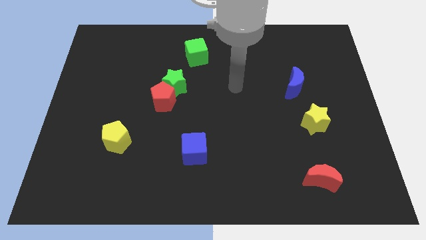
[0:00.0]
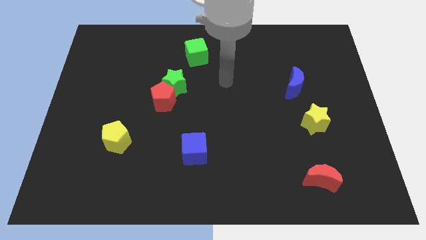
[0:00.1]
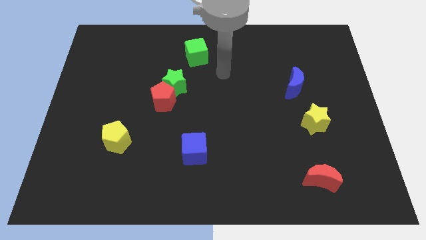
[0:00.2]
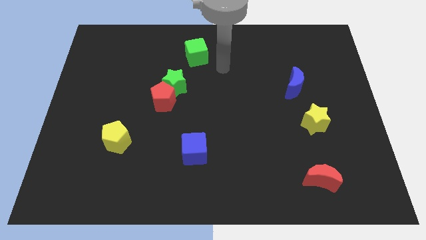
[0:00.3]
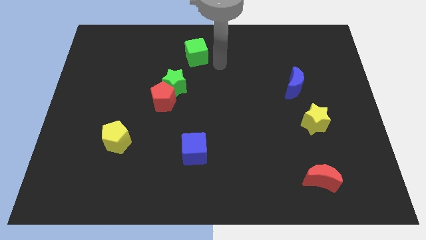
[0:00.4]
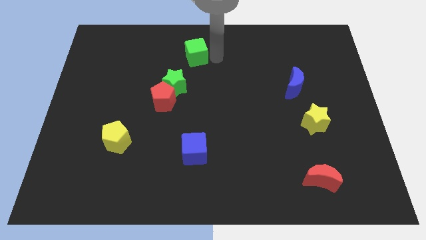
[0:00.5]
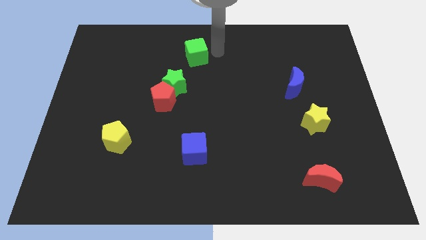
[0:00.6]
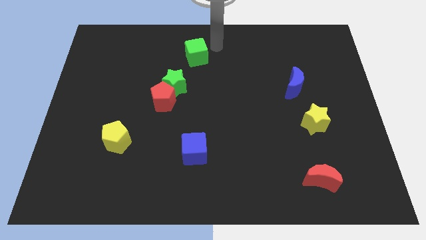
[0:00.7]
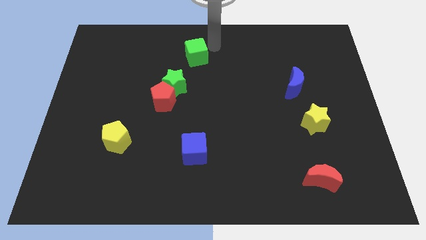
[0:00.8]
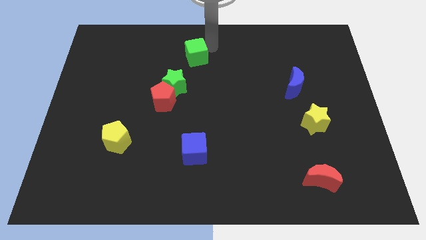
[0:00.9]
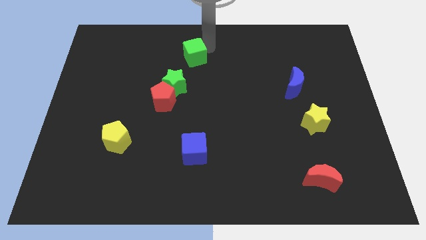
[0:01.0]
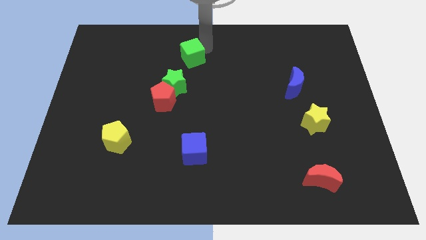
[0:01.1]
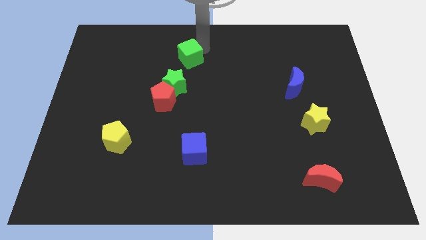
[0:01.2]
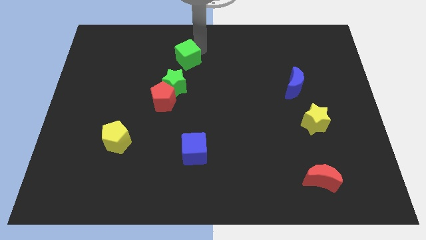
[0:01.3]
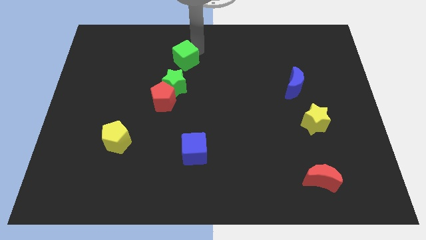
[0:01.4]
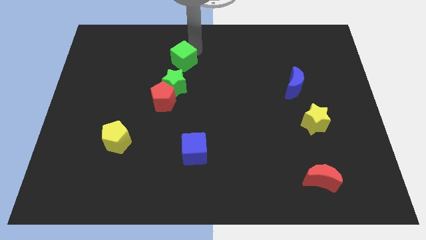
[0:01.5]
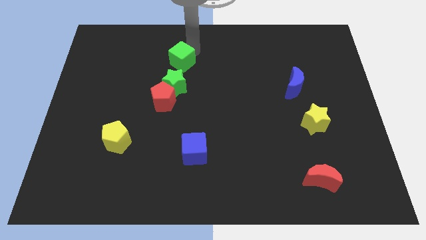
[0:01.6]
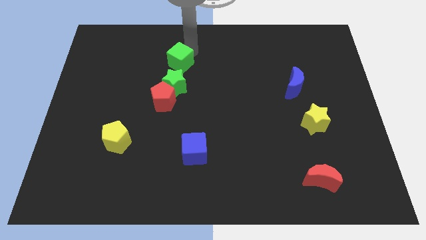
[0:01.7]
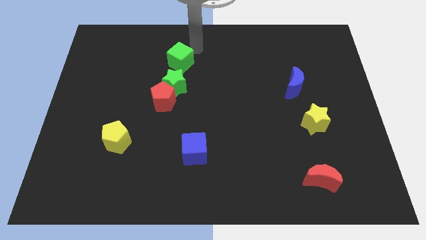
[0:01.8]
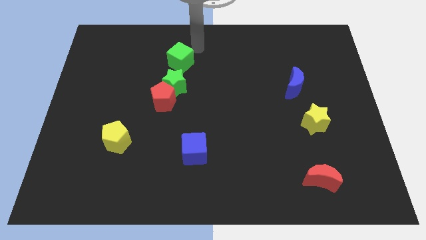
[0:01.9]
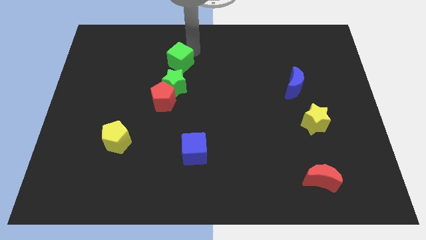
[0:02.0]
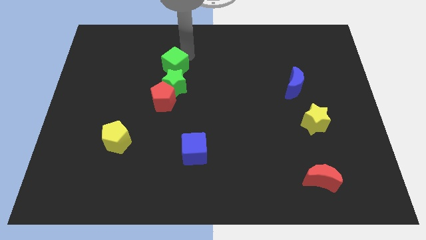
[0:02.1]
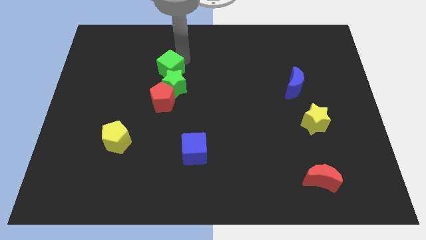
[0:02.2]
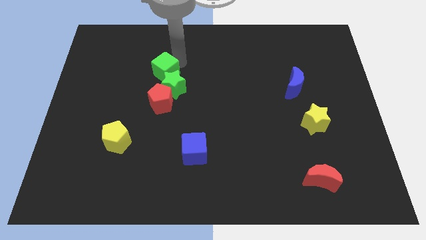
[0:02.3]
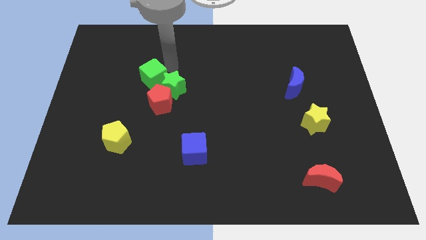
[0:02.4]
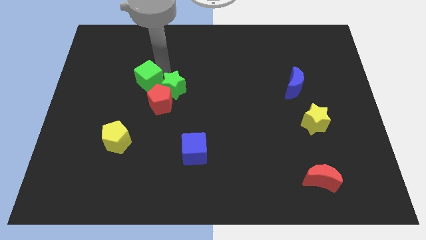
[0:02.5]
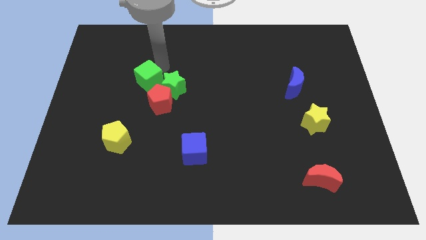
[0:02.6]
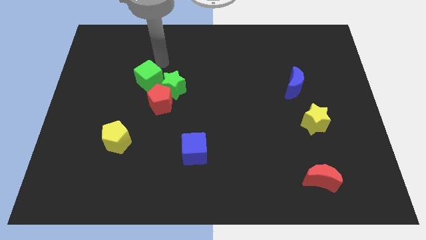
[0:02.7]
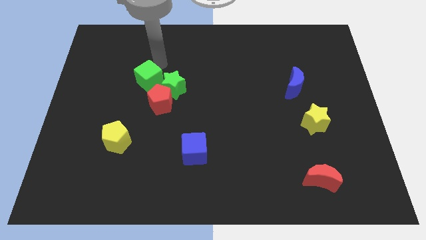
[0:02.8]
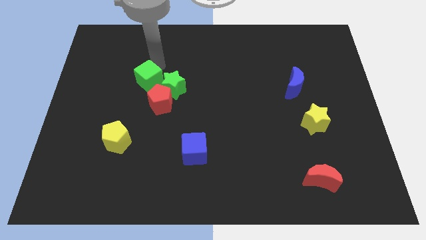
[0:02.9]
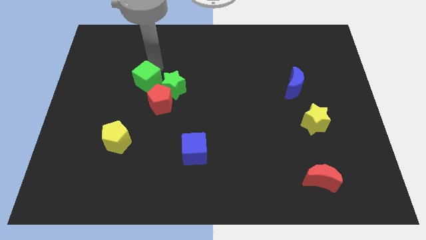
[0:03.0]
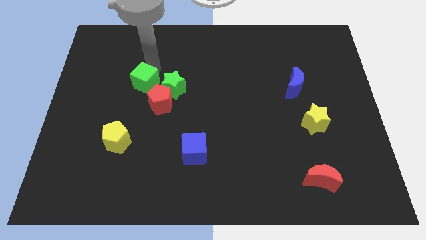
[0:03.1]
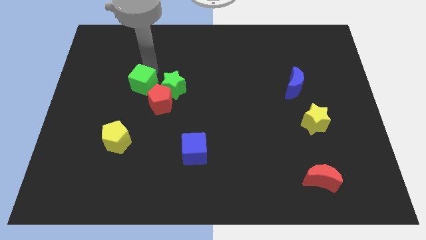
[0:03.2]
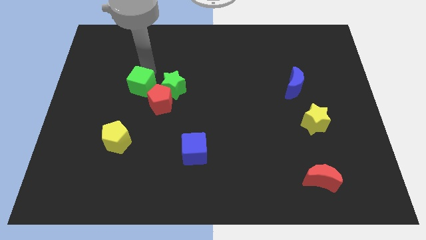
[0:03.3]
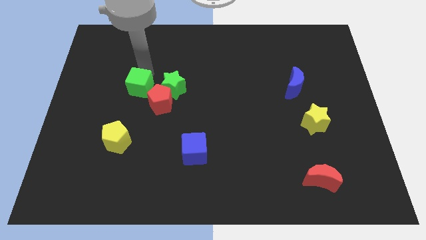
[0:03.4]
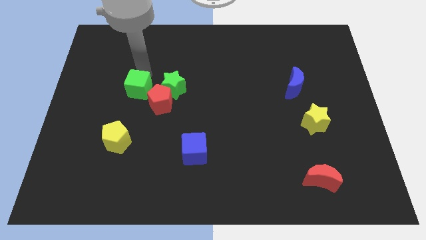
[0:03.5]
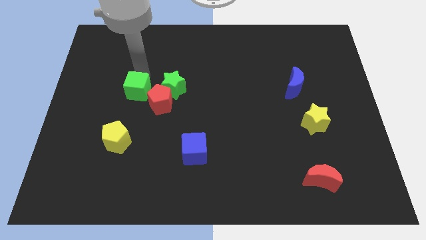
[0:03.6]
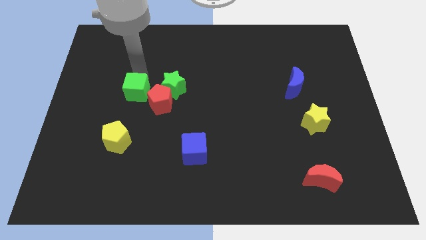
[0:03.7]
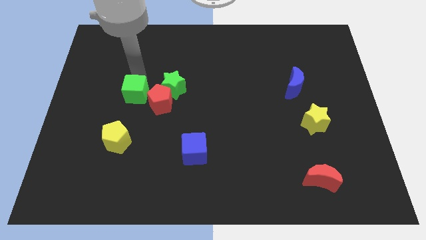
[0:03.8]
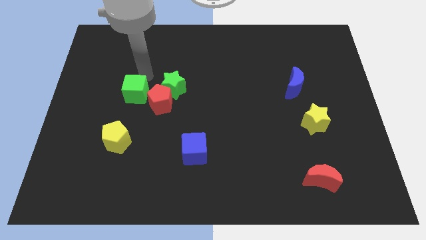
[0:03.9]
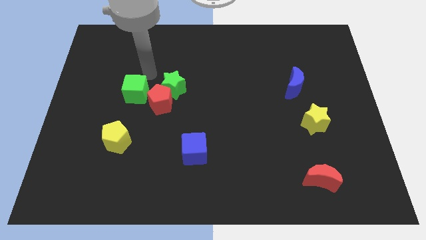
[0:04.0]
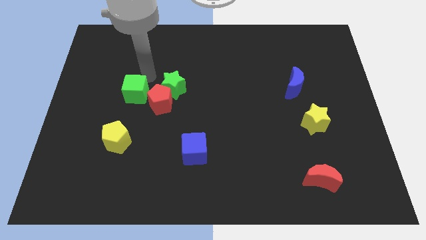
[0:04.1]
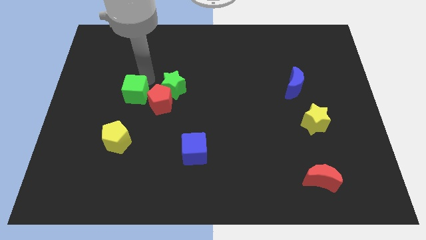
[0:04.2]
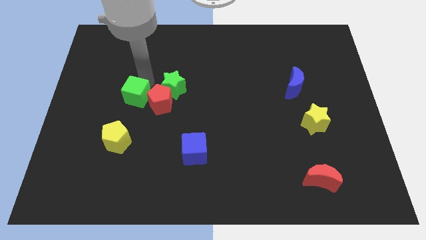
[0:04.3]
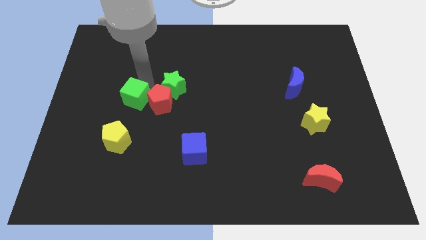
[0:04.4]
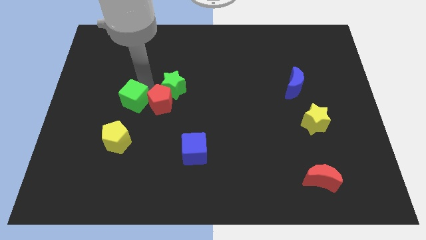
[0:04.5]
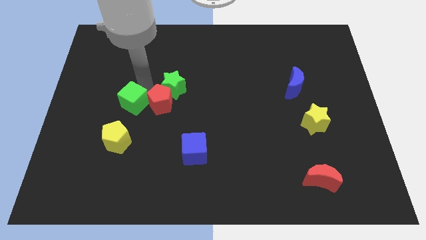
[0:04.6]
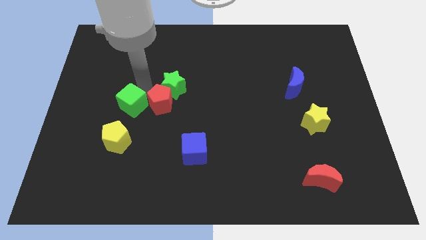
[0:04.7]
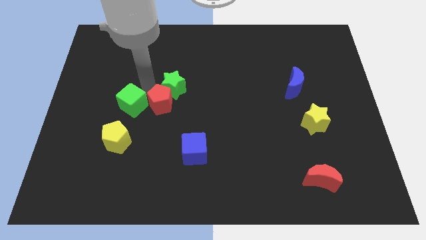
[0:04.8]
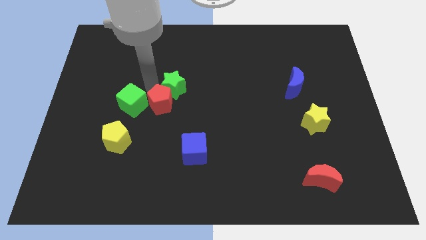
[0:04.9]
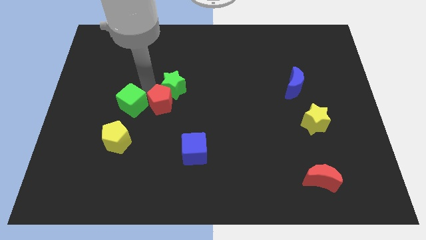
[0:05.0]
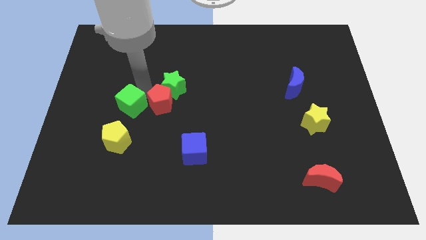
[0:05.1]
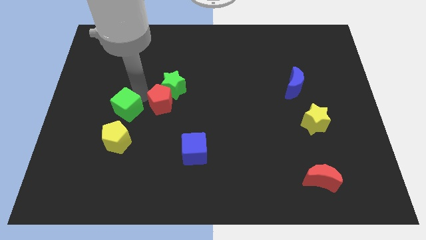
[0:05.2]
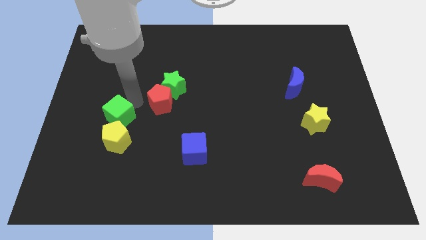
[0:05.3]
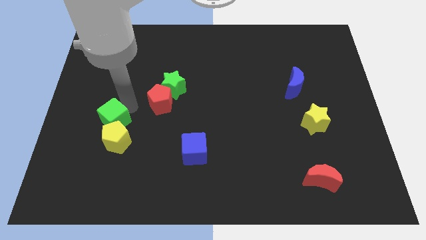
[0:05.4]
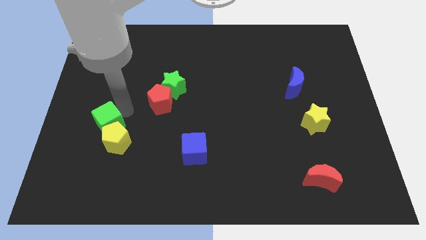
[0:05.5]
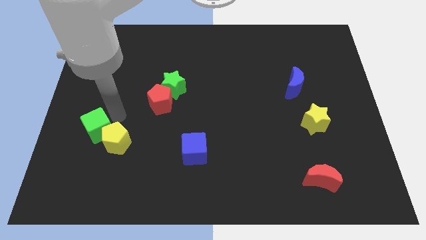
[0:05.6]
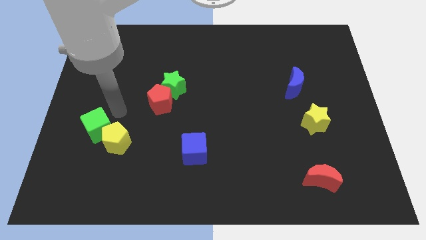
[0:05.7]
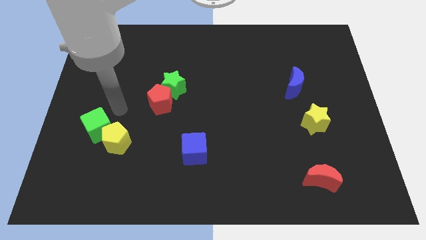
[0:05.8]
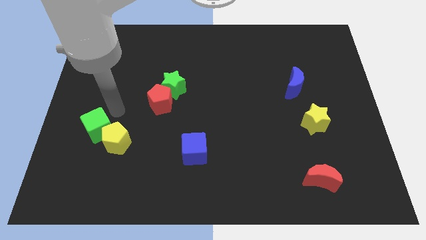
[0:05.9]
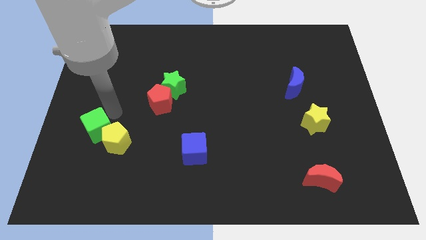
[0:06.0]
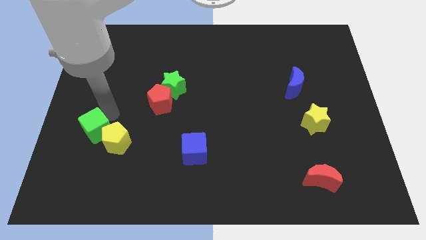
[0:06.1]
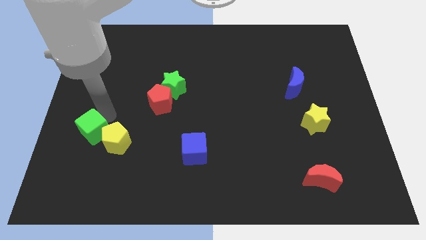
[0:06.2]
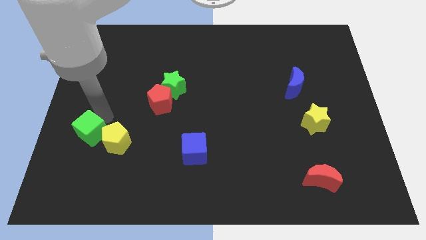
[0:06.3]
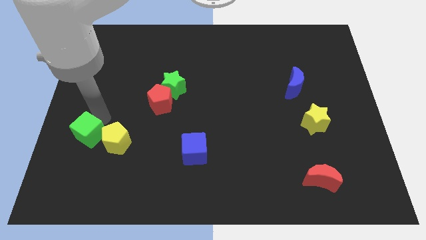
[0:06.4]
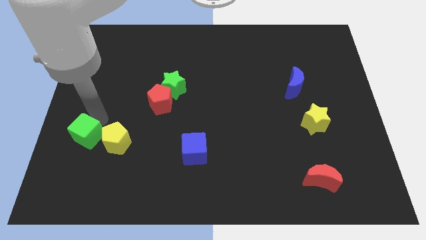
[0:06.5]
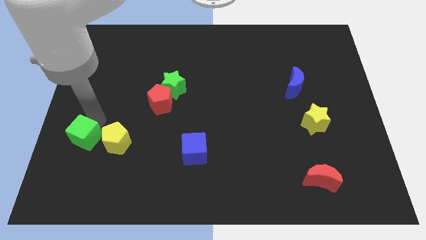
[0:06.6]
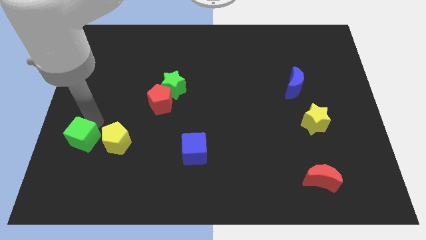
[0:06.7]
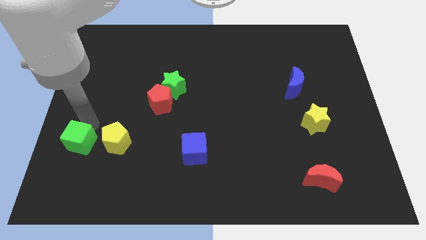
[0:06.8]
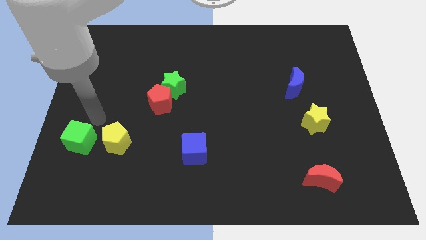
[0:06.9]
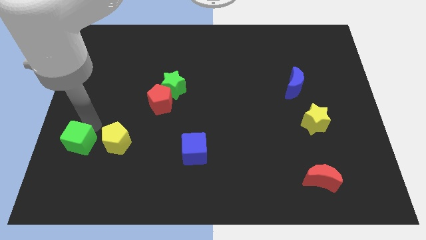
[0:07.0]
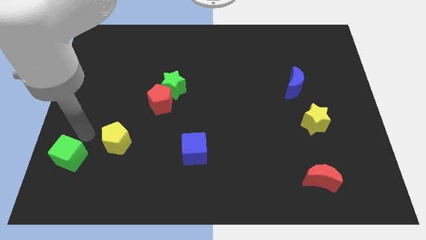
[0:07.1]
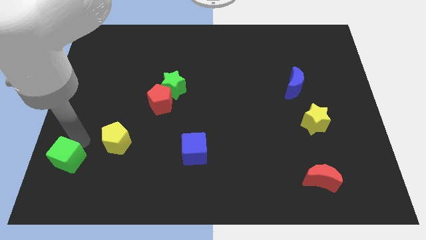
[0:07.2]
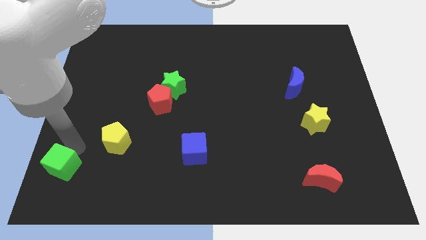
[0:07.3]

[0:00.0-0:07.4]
slide the green cube to the bottom left corner
